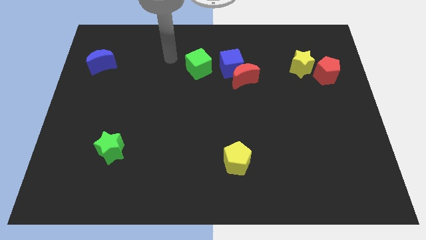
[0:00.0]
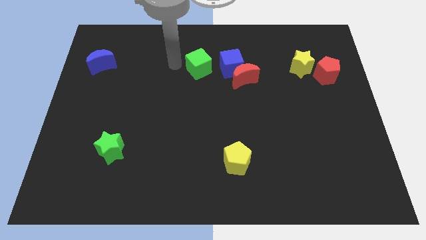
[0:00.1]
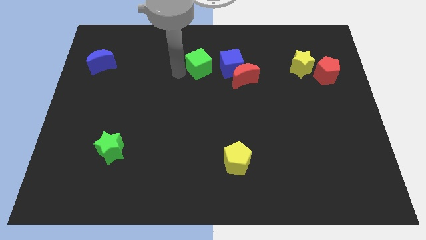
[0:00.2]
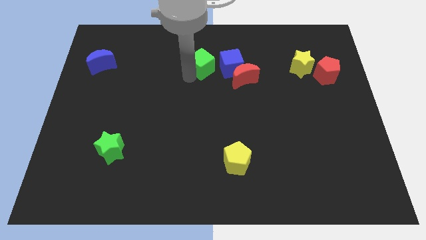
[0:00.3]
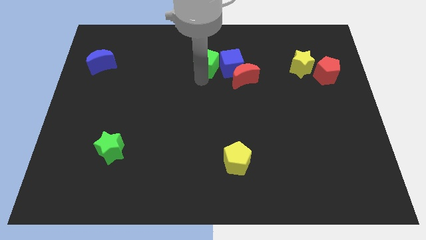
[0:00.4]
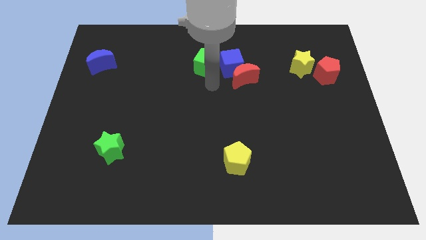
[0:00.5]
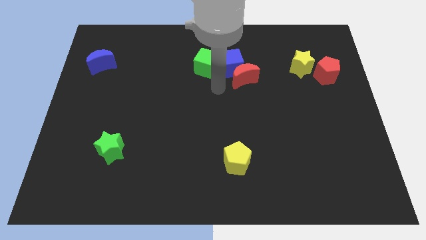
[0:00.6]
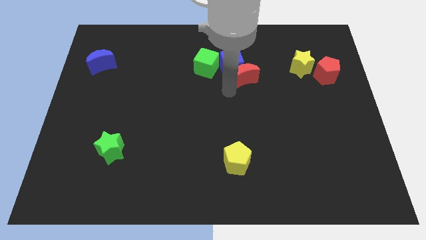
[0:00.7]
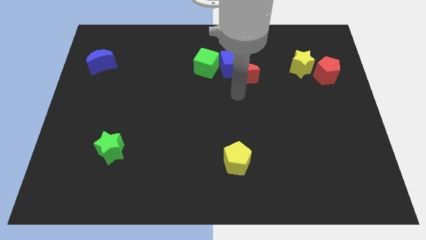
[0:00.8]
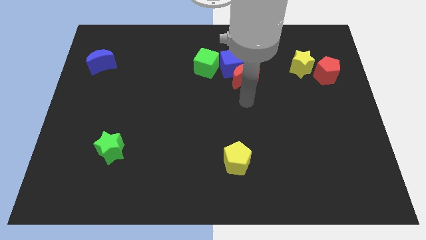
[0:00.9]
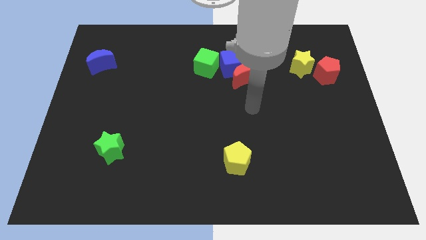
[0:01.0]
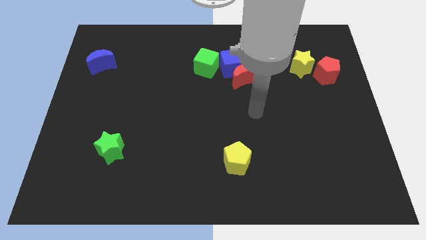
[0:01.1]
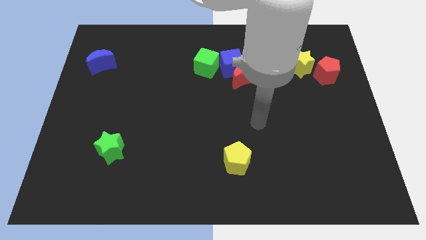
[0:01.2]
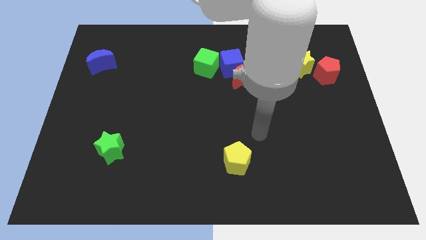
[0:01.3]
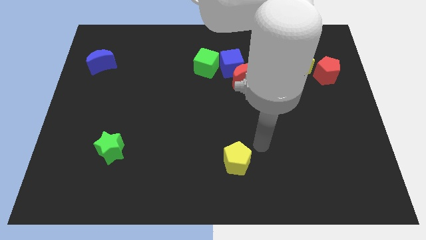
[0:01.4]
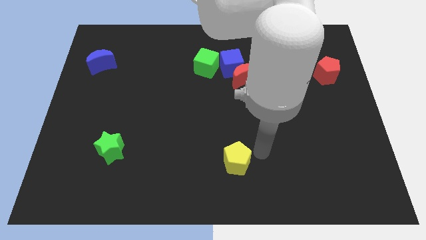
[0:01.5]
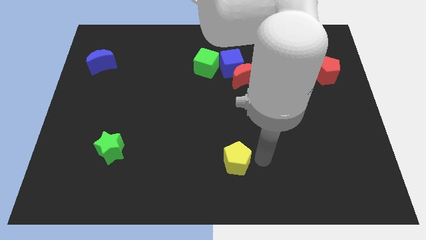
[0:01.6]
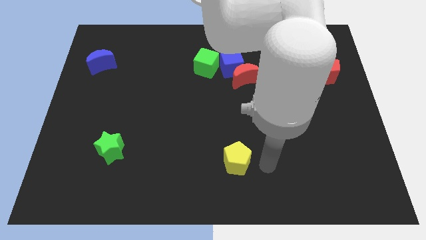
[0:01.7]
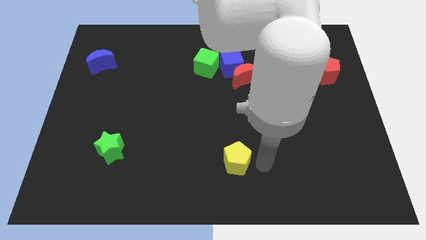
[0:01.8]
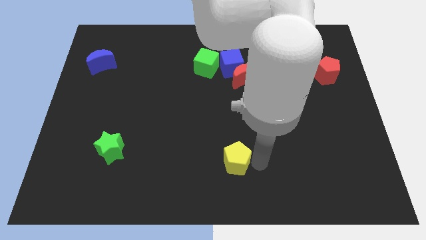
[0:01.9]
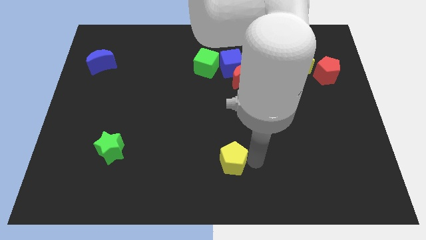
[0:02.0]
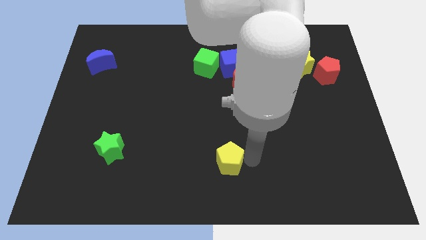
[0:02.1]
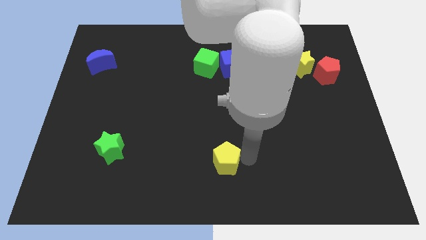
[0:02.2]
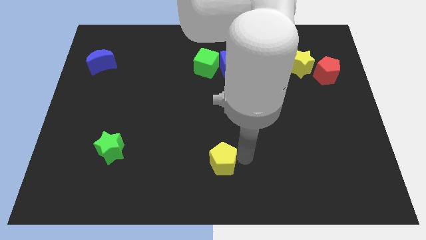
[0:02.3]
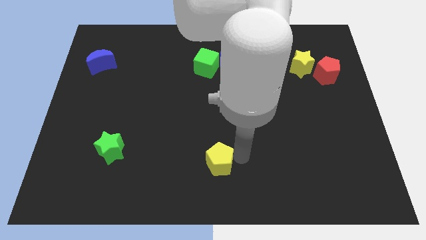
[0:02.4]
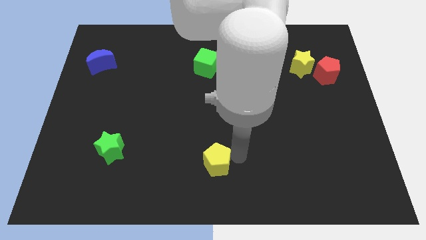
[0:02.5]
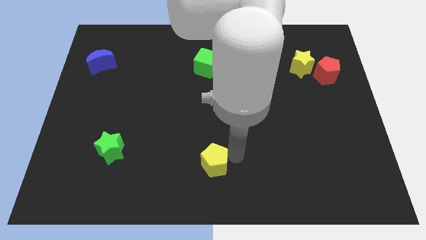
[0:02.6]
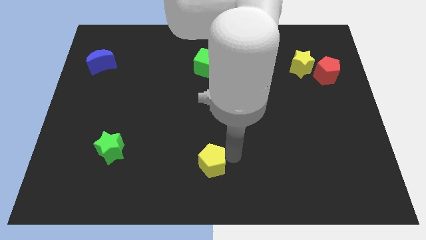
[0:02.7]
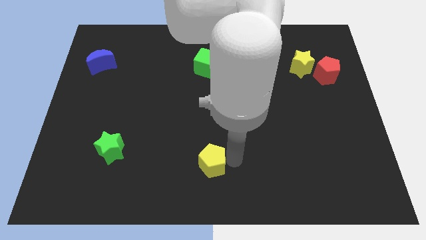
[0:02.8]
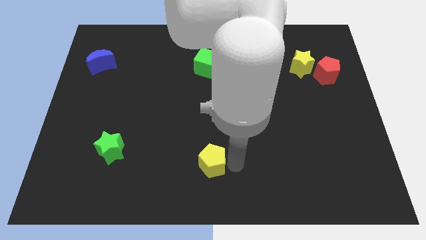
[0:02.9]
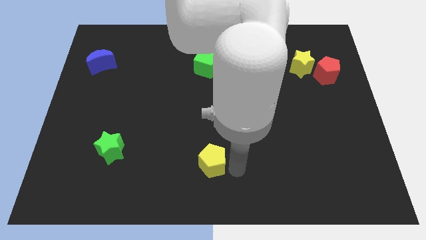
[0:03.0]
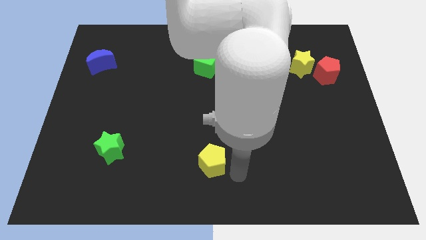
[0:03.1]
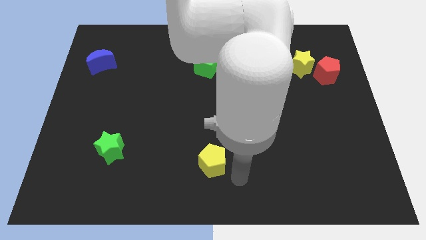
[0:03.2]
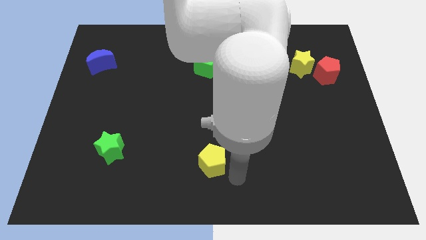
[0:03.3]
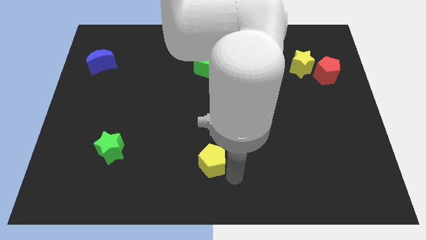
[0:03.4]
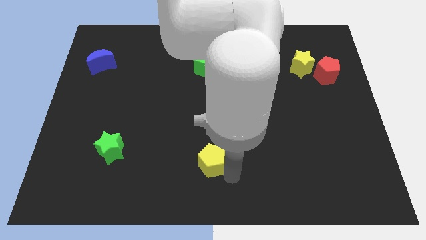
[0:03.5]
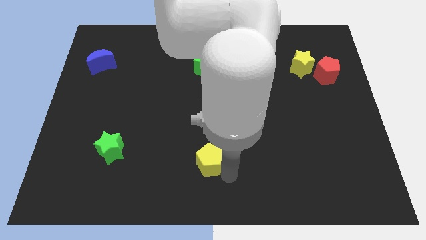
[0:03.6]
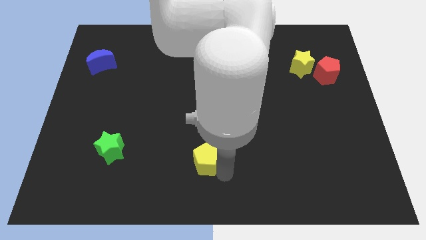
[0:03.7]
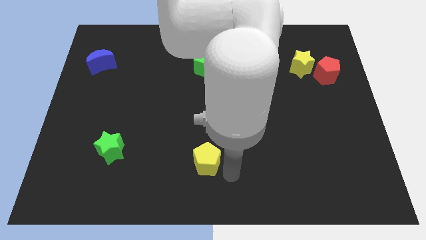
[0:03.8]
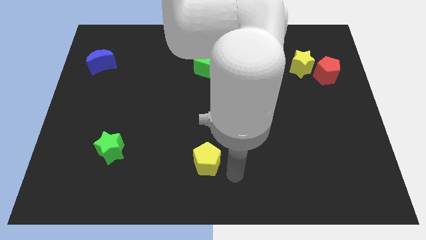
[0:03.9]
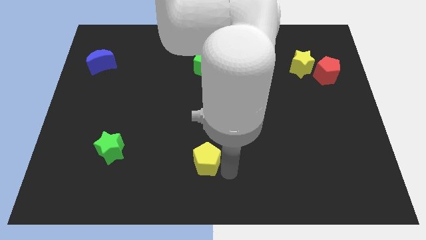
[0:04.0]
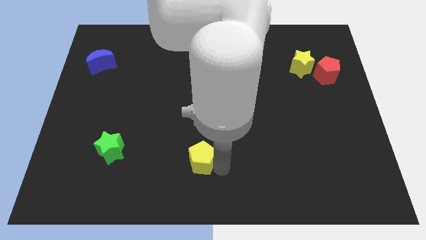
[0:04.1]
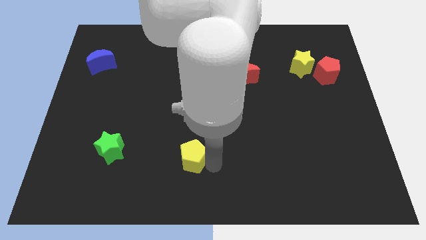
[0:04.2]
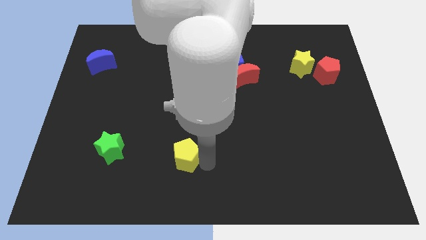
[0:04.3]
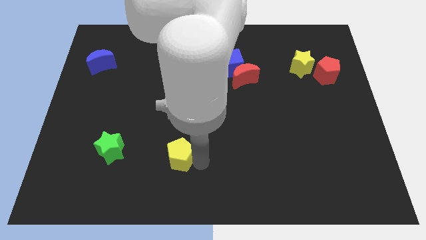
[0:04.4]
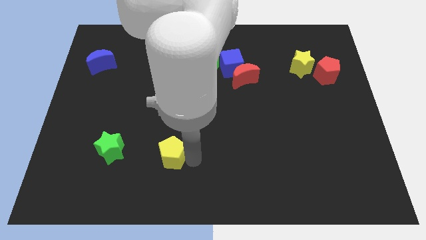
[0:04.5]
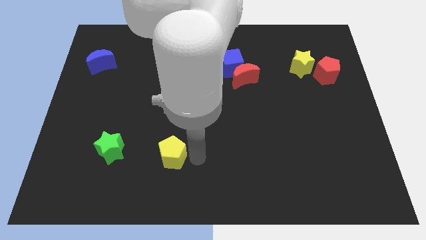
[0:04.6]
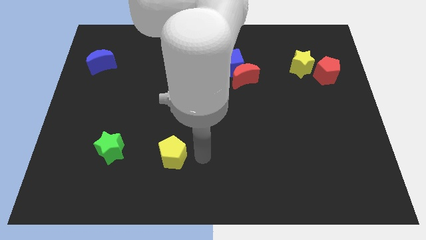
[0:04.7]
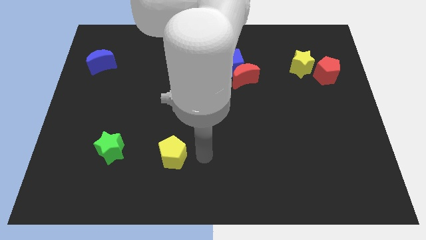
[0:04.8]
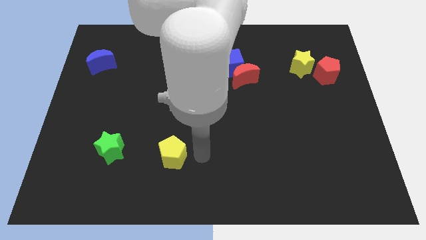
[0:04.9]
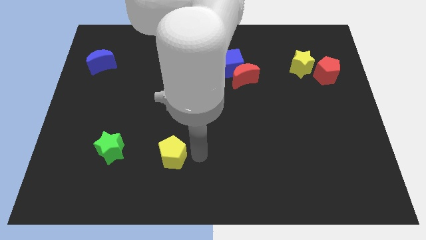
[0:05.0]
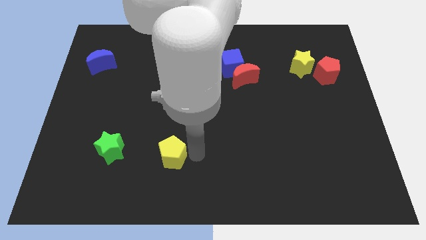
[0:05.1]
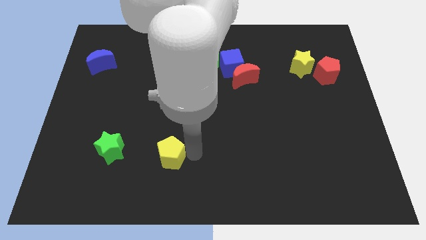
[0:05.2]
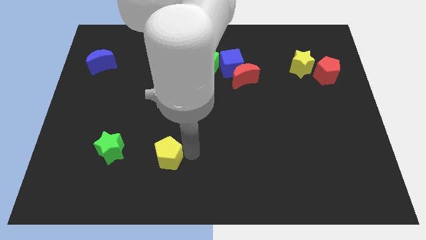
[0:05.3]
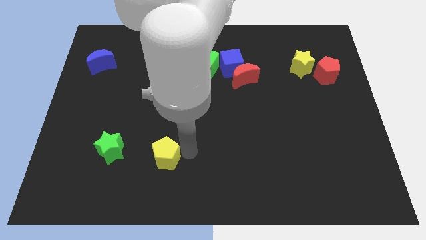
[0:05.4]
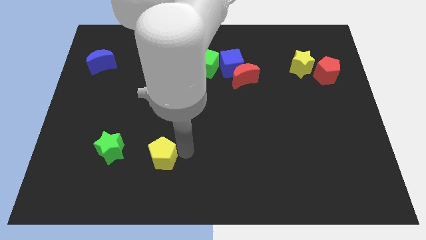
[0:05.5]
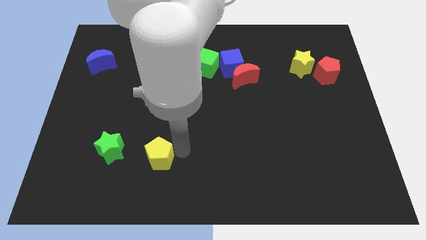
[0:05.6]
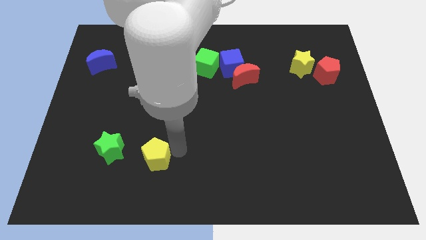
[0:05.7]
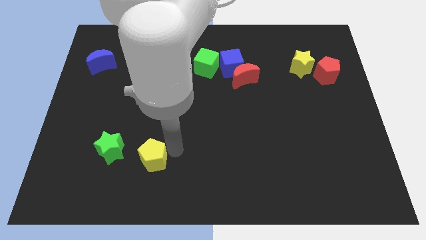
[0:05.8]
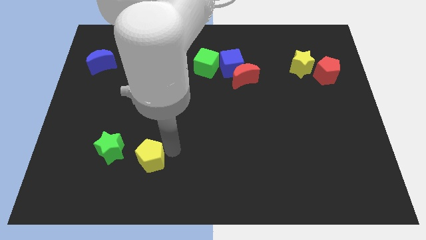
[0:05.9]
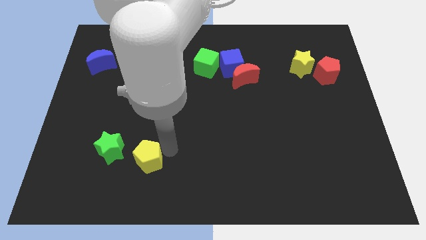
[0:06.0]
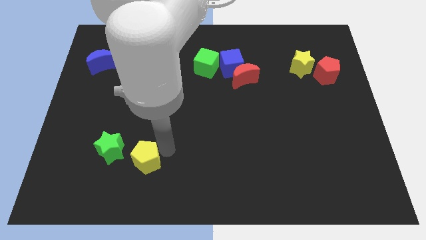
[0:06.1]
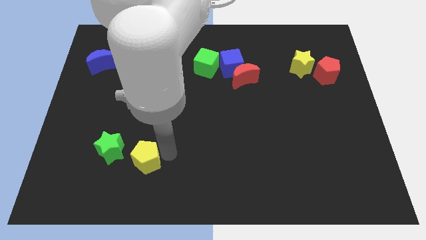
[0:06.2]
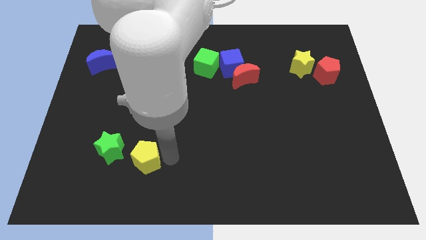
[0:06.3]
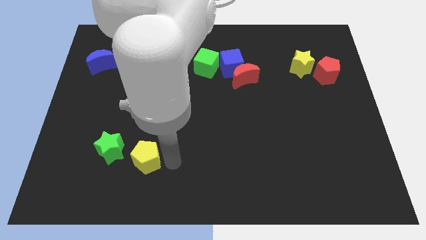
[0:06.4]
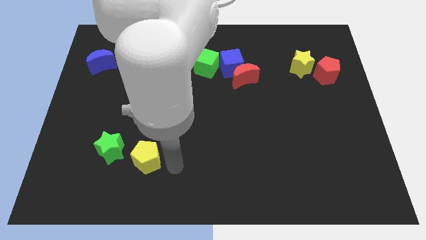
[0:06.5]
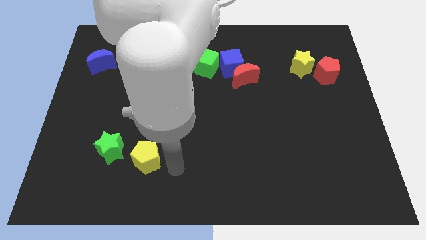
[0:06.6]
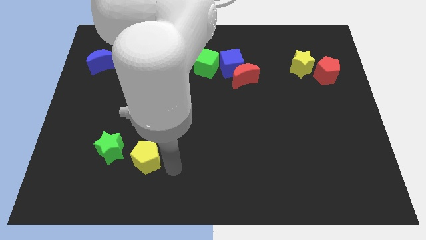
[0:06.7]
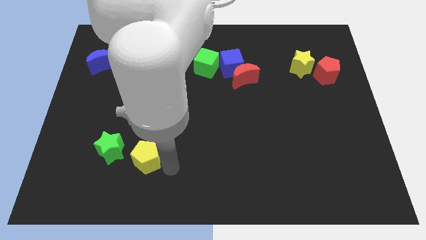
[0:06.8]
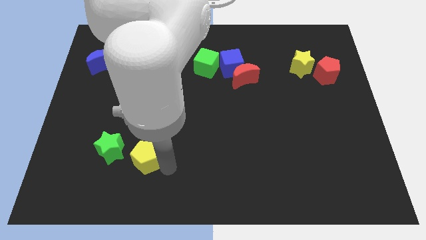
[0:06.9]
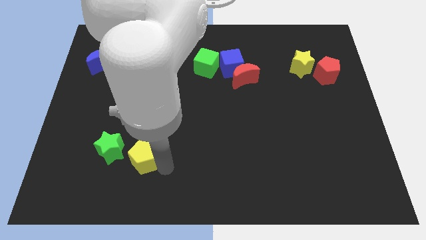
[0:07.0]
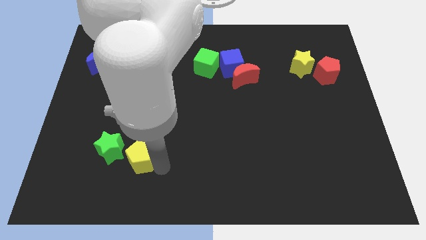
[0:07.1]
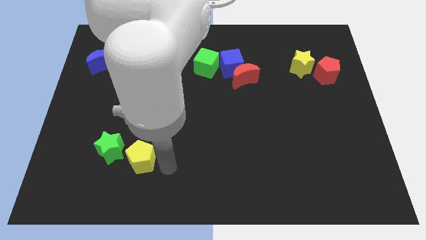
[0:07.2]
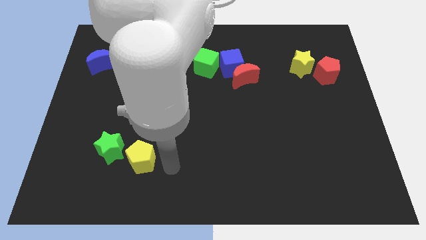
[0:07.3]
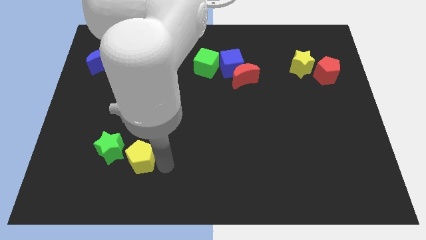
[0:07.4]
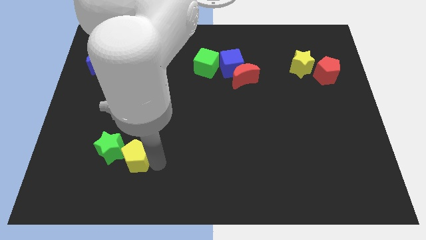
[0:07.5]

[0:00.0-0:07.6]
push the yellow pentagon to the green star
